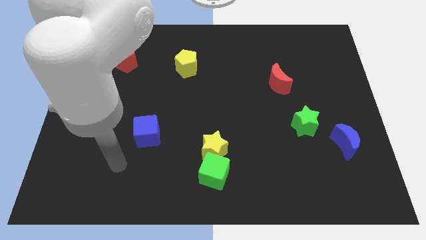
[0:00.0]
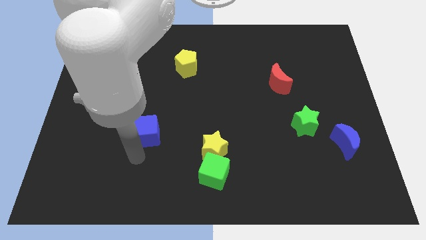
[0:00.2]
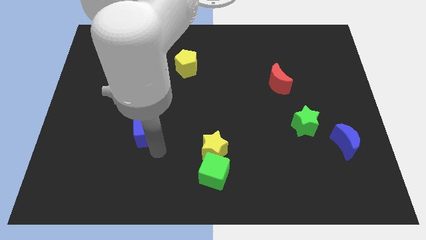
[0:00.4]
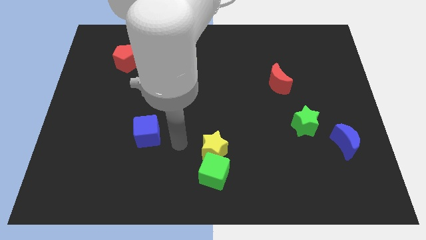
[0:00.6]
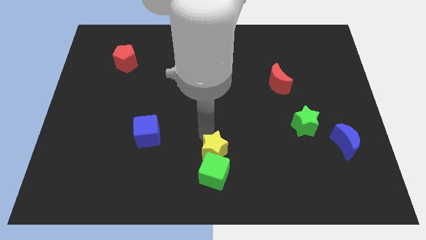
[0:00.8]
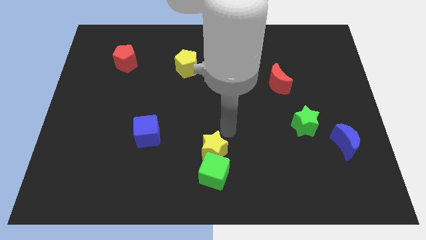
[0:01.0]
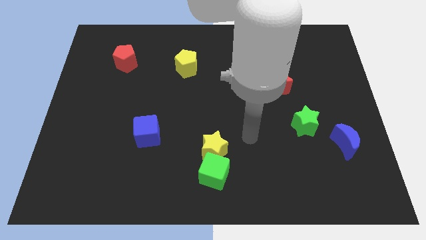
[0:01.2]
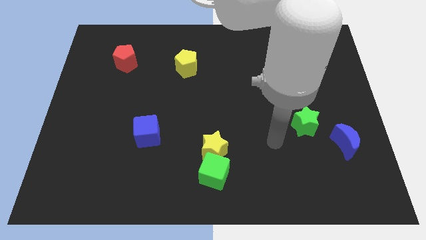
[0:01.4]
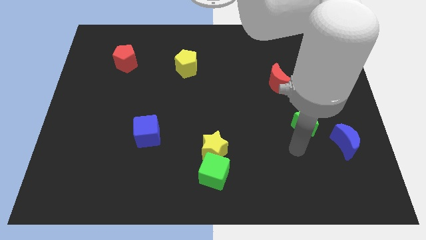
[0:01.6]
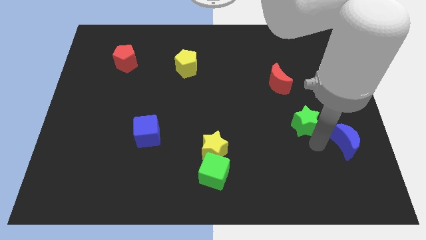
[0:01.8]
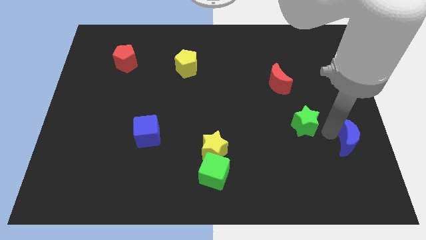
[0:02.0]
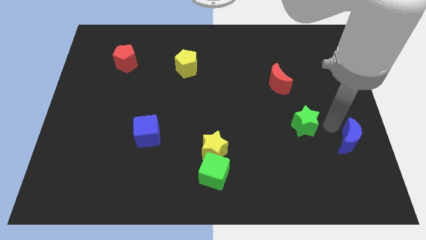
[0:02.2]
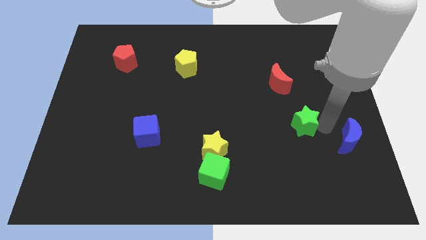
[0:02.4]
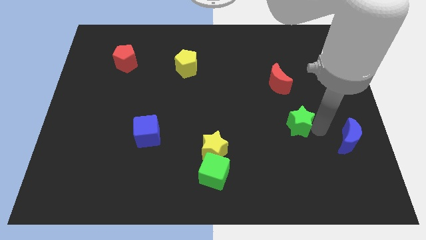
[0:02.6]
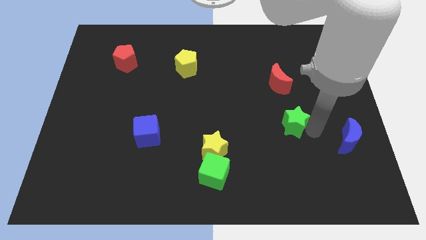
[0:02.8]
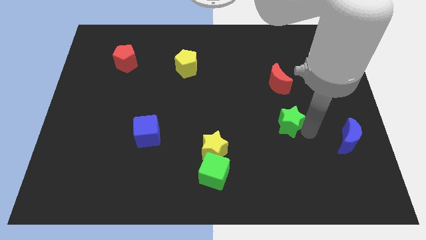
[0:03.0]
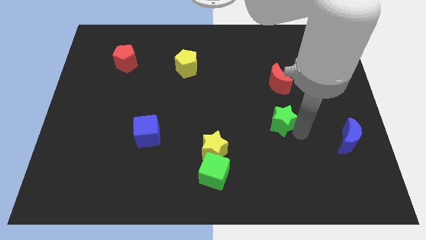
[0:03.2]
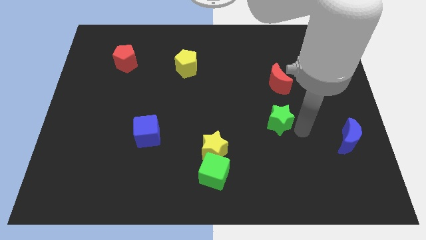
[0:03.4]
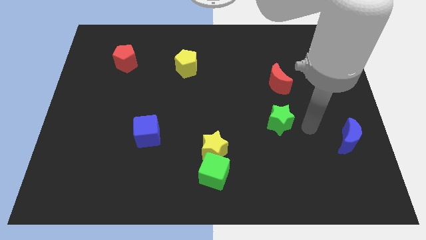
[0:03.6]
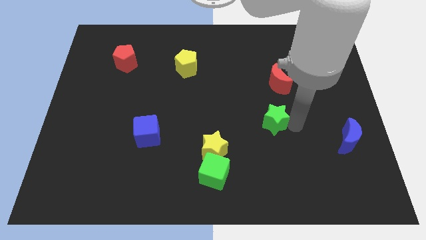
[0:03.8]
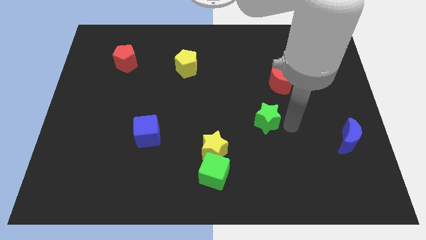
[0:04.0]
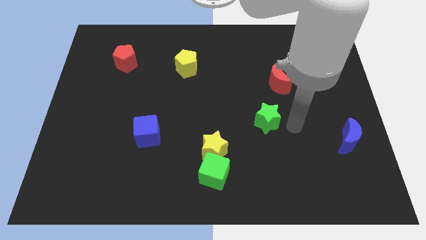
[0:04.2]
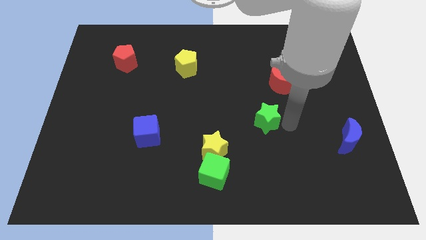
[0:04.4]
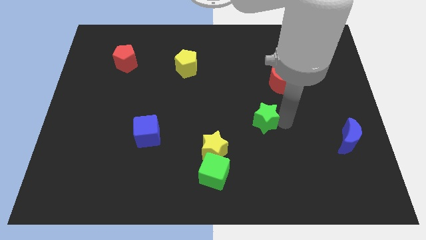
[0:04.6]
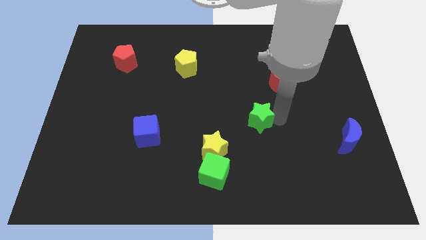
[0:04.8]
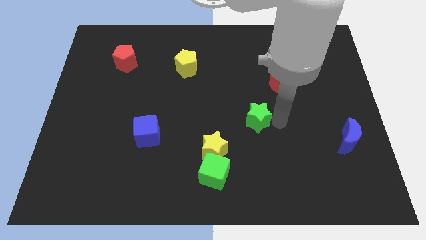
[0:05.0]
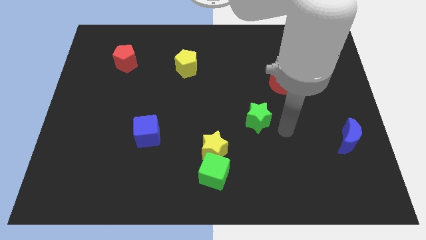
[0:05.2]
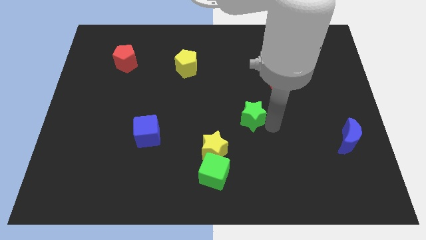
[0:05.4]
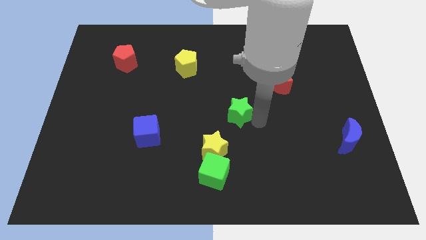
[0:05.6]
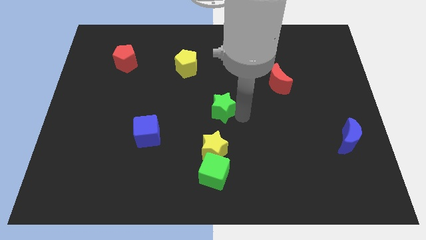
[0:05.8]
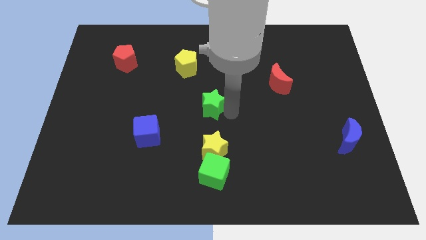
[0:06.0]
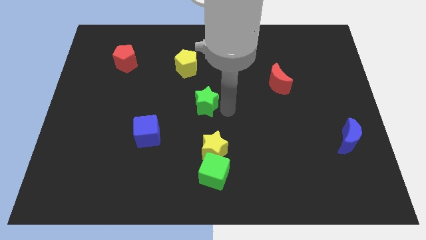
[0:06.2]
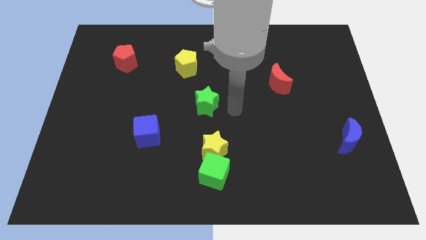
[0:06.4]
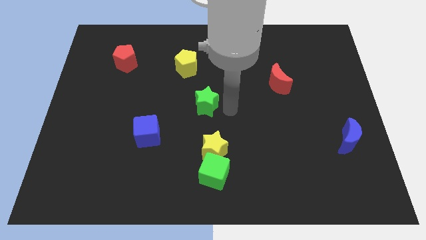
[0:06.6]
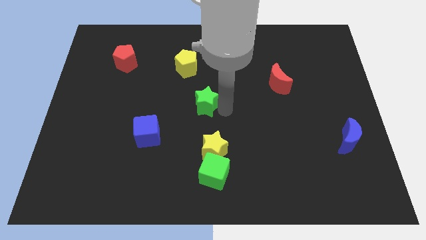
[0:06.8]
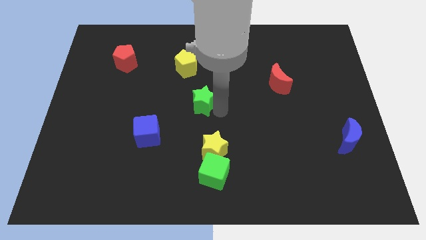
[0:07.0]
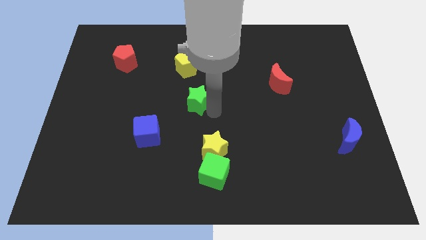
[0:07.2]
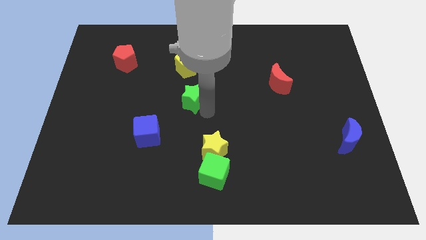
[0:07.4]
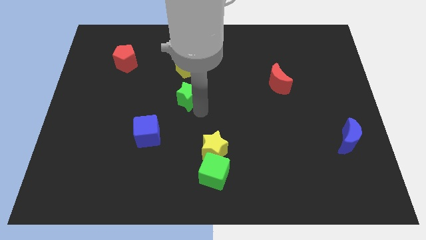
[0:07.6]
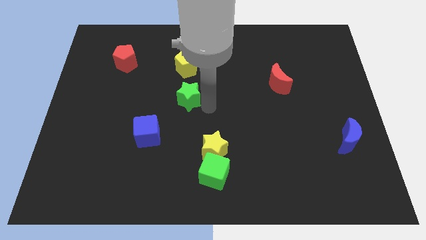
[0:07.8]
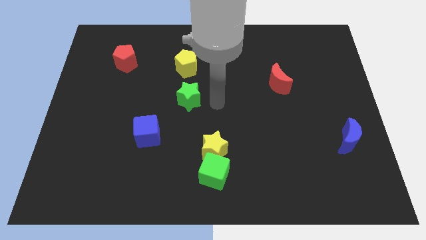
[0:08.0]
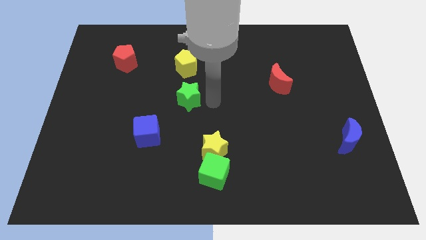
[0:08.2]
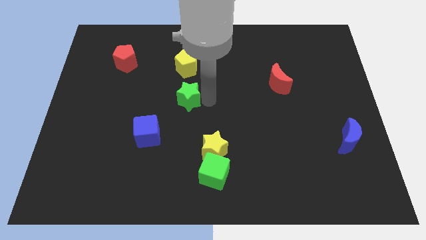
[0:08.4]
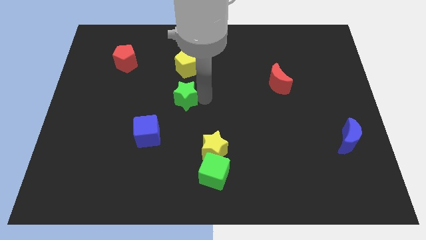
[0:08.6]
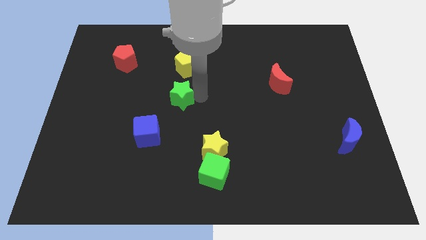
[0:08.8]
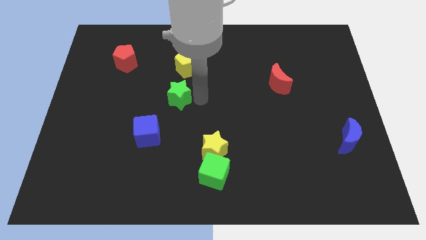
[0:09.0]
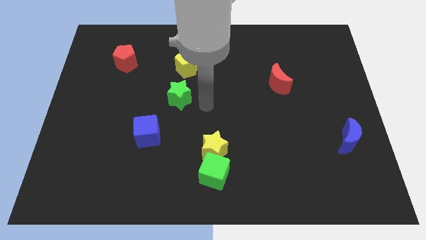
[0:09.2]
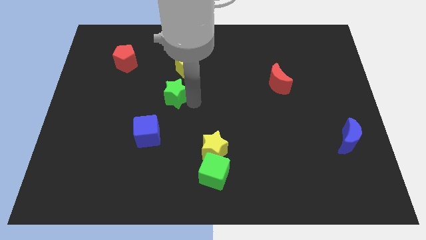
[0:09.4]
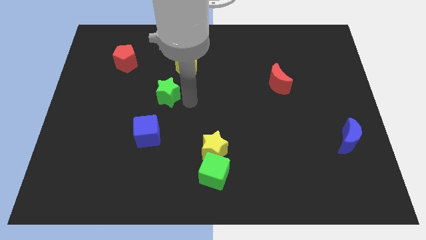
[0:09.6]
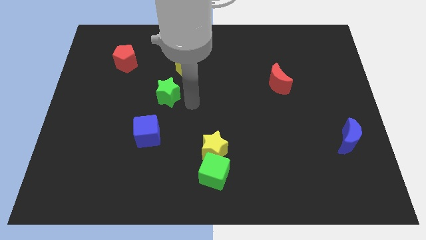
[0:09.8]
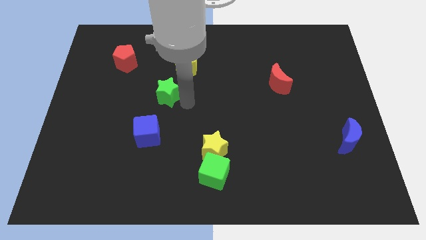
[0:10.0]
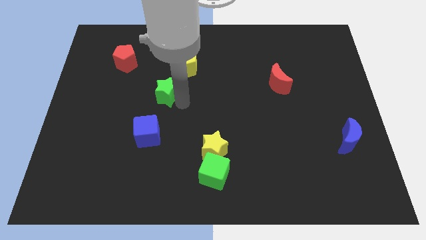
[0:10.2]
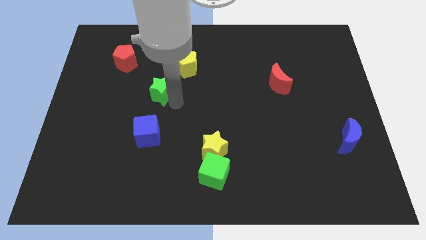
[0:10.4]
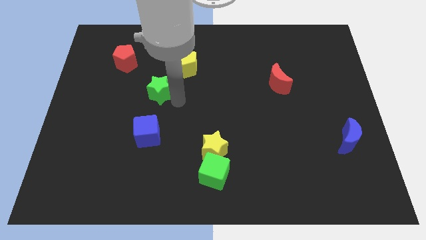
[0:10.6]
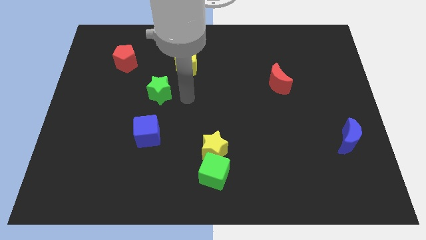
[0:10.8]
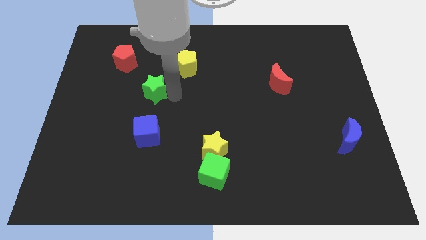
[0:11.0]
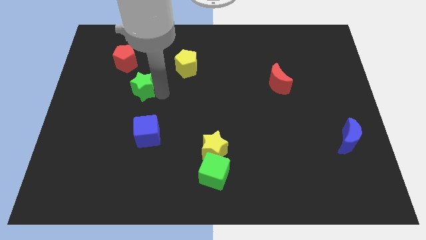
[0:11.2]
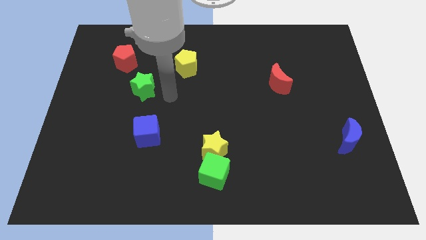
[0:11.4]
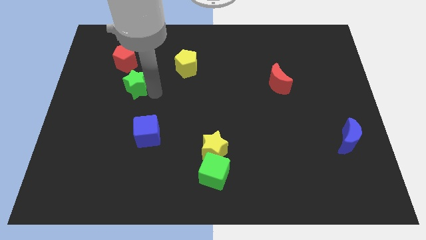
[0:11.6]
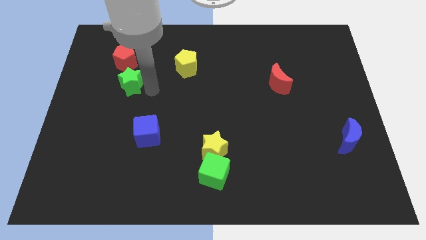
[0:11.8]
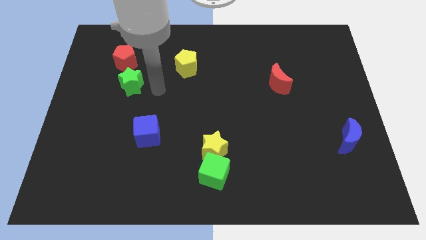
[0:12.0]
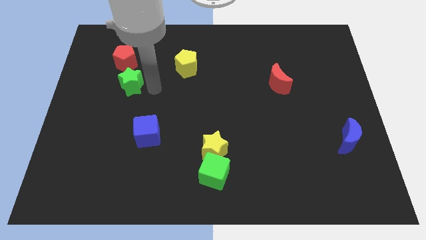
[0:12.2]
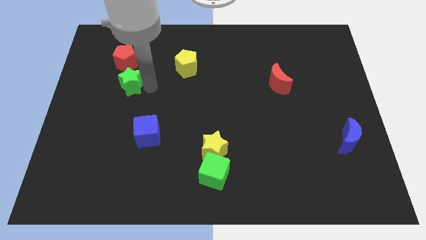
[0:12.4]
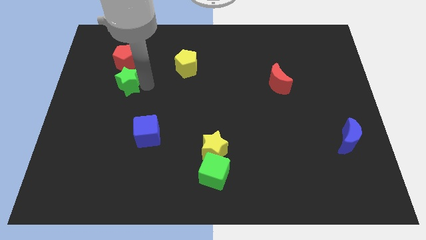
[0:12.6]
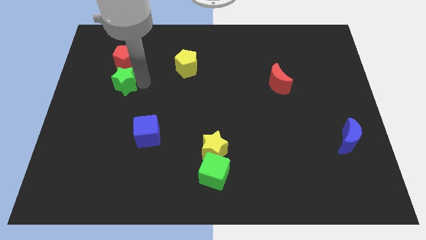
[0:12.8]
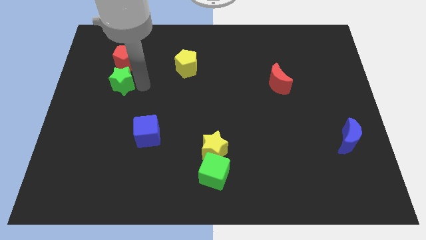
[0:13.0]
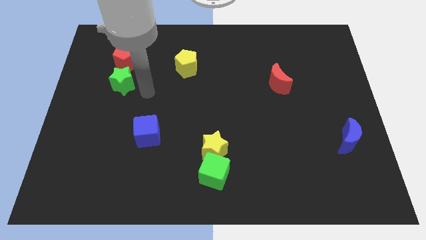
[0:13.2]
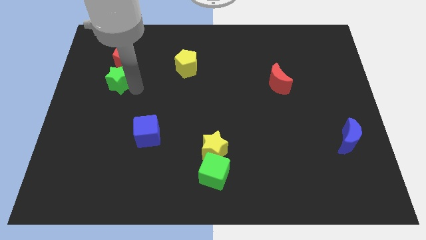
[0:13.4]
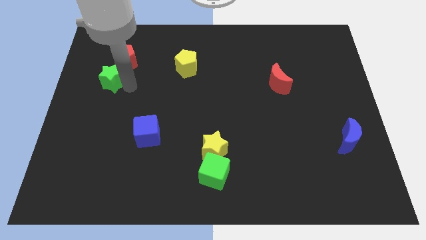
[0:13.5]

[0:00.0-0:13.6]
move the green star to the bottom left of the red pentagon
